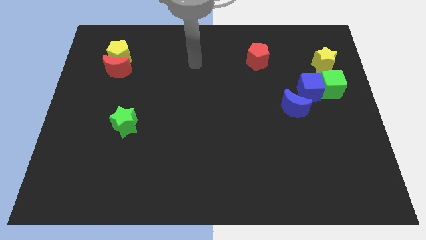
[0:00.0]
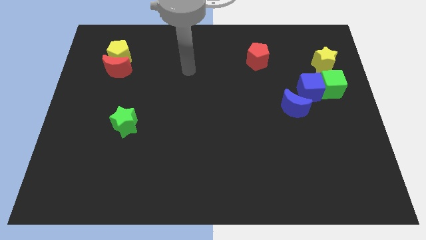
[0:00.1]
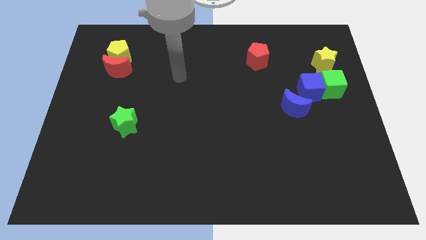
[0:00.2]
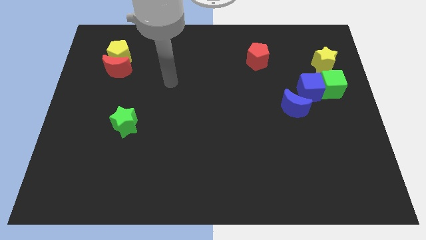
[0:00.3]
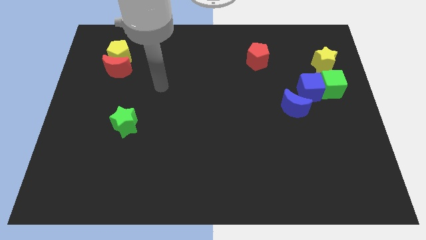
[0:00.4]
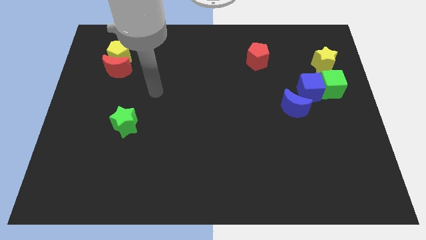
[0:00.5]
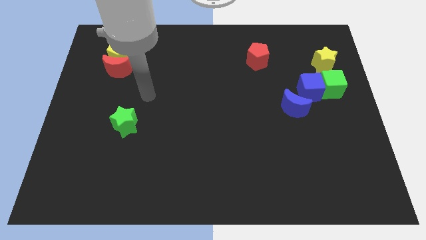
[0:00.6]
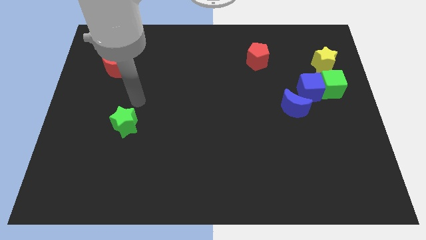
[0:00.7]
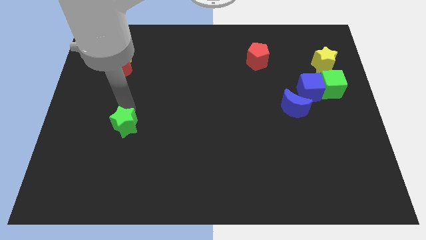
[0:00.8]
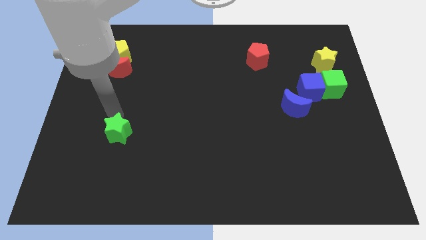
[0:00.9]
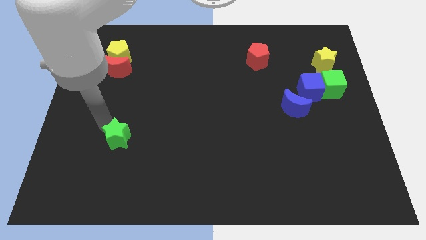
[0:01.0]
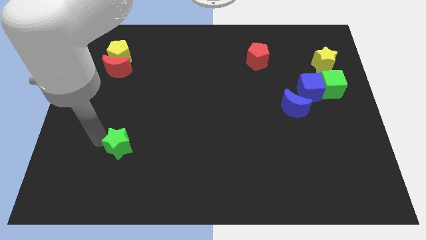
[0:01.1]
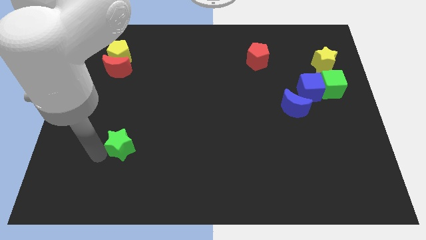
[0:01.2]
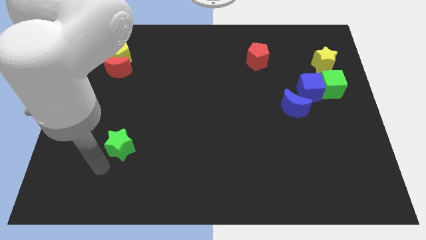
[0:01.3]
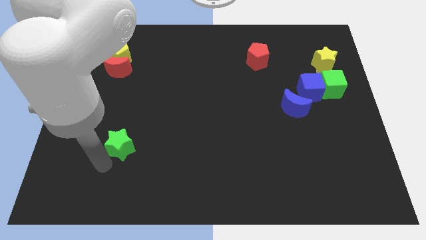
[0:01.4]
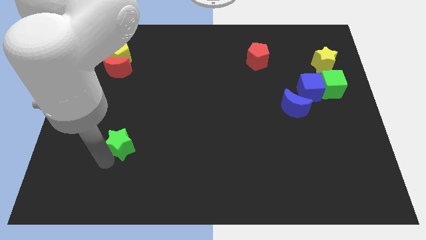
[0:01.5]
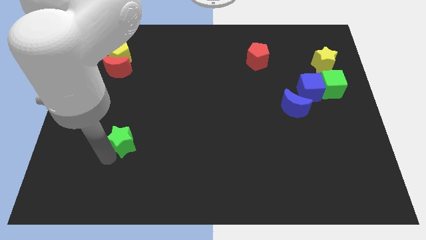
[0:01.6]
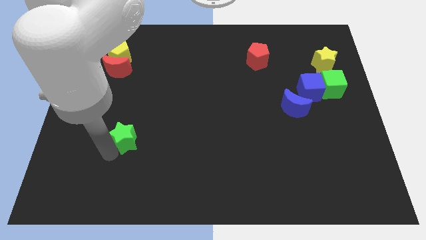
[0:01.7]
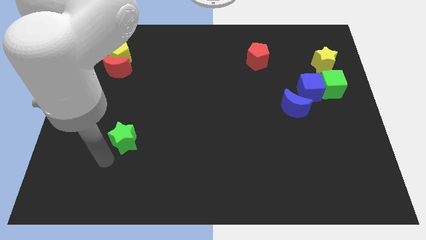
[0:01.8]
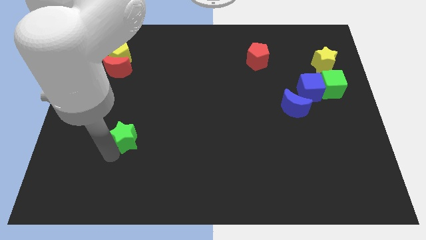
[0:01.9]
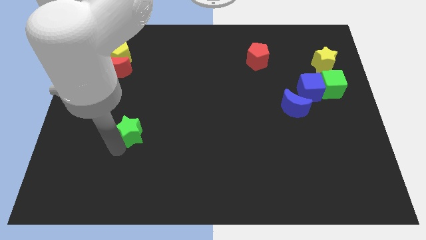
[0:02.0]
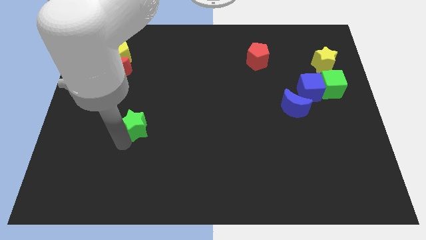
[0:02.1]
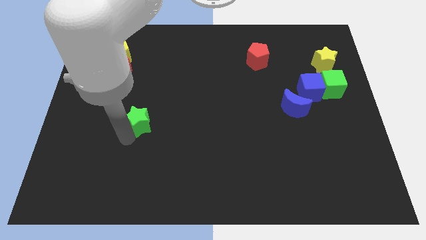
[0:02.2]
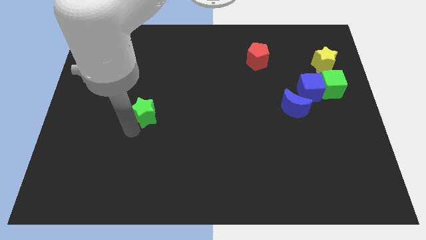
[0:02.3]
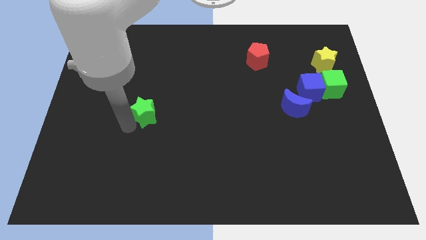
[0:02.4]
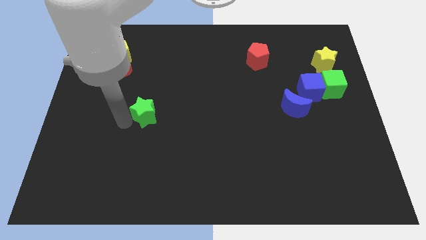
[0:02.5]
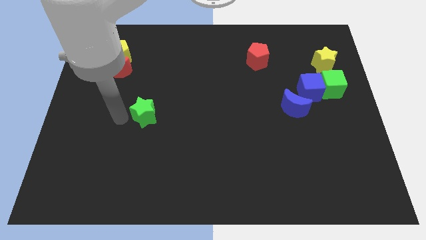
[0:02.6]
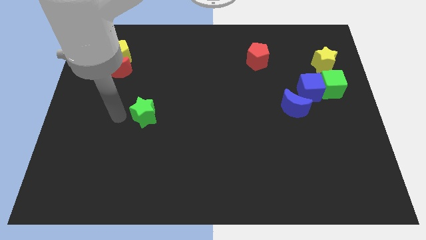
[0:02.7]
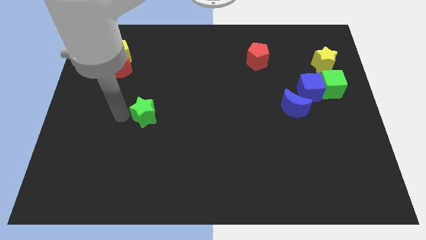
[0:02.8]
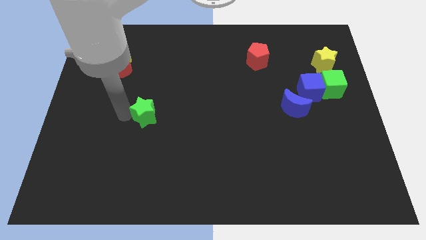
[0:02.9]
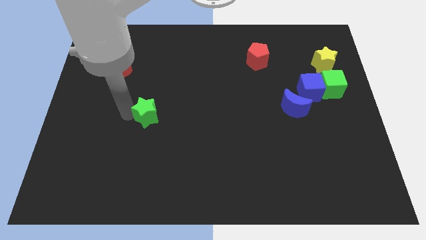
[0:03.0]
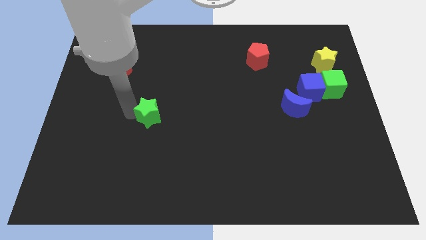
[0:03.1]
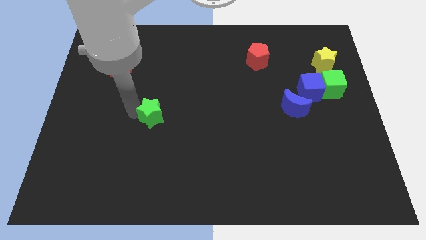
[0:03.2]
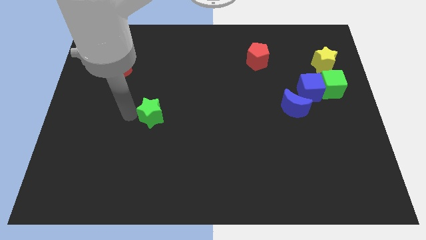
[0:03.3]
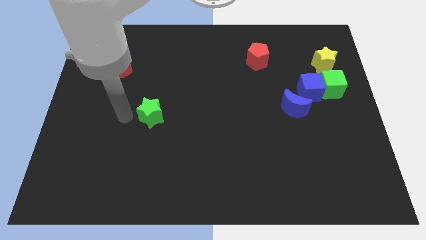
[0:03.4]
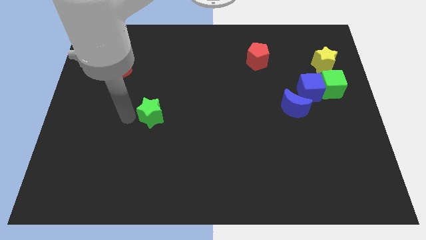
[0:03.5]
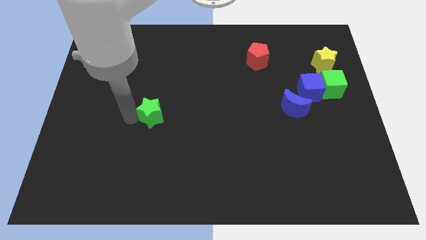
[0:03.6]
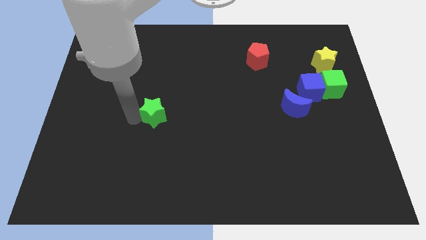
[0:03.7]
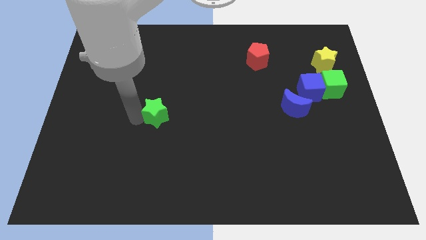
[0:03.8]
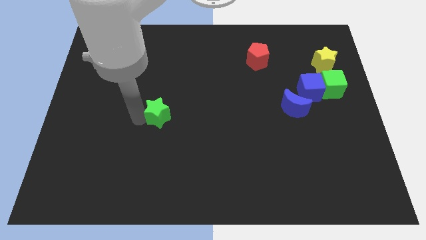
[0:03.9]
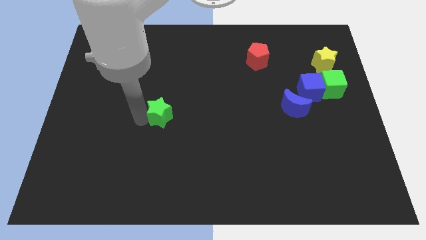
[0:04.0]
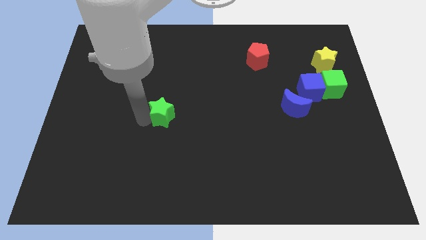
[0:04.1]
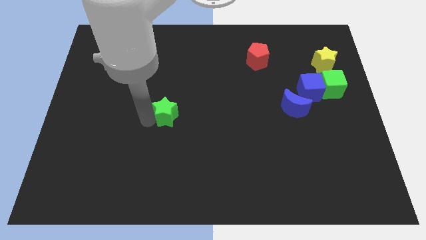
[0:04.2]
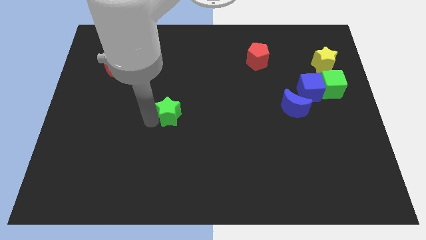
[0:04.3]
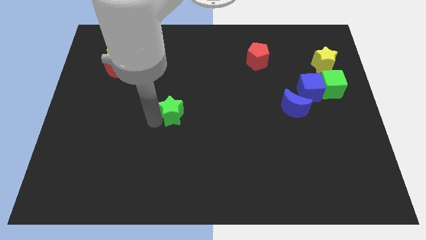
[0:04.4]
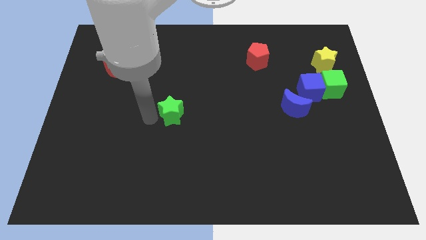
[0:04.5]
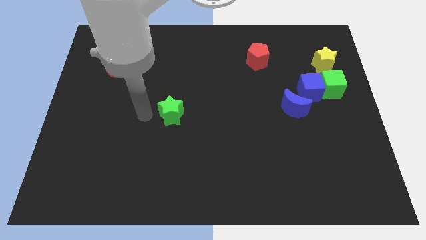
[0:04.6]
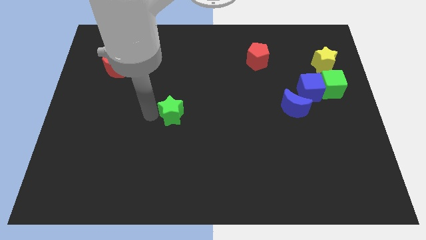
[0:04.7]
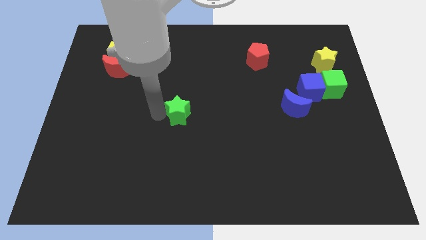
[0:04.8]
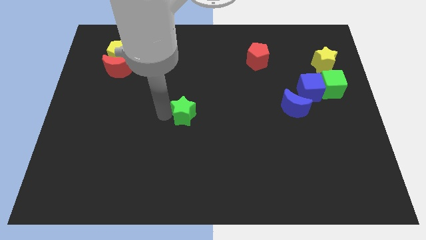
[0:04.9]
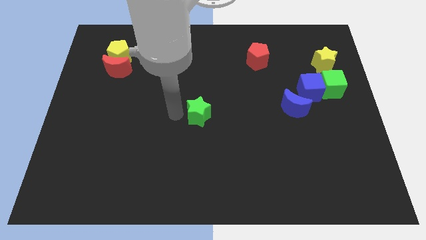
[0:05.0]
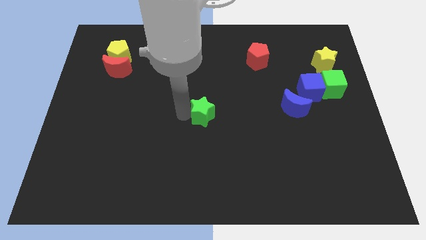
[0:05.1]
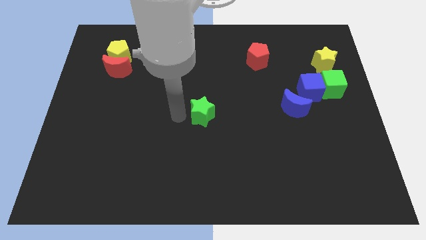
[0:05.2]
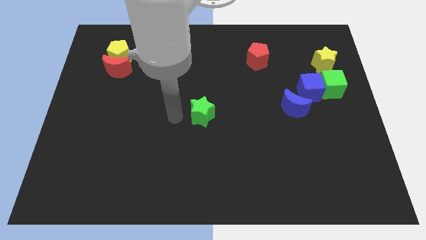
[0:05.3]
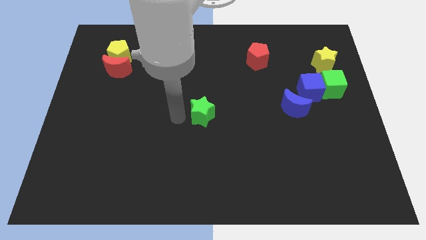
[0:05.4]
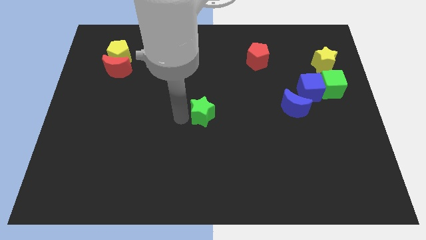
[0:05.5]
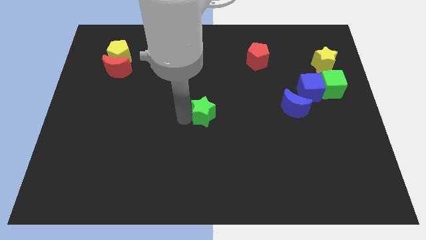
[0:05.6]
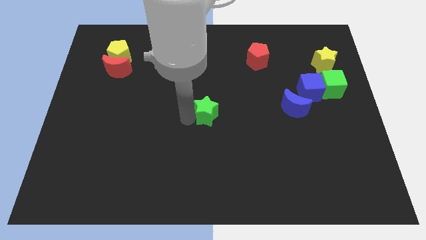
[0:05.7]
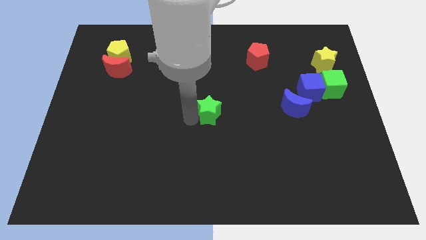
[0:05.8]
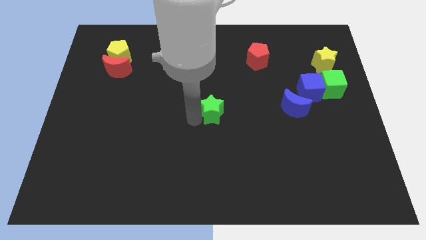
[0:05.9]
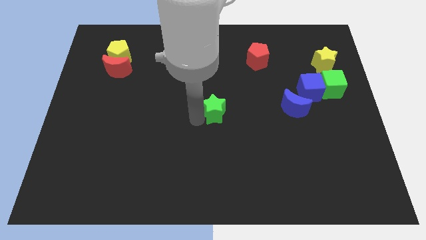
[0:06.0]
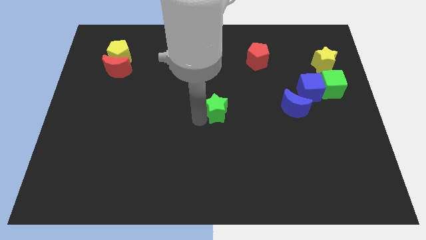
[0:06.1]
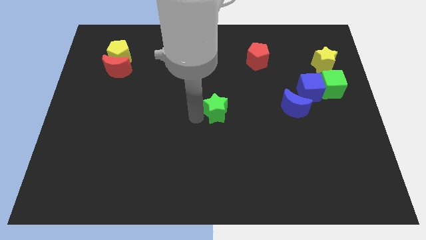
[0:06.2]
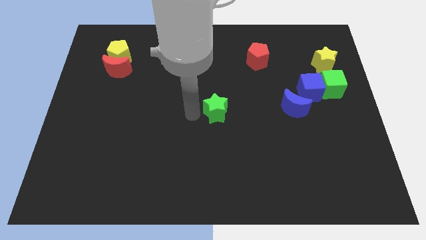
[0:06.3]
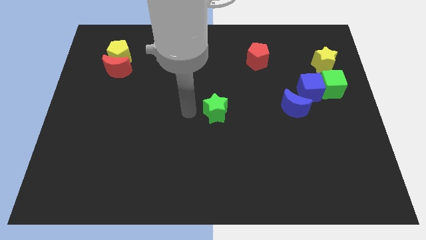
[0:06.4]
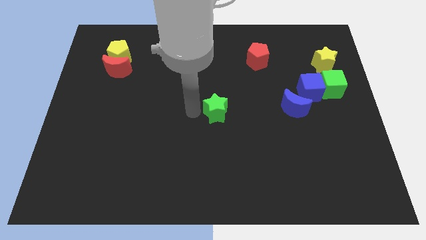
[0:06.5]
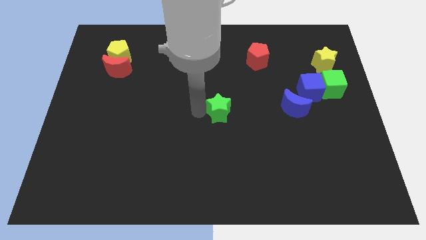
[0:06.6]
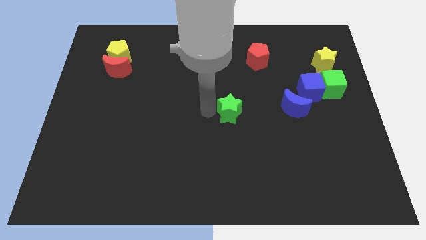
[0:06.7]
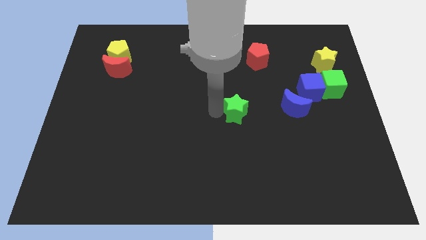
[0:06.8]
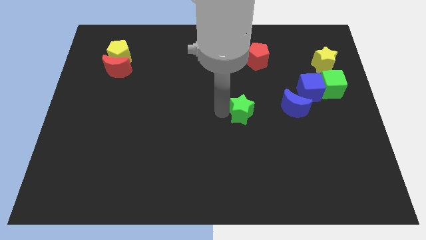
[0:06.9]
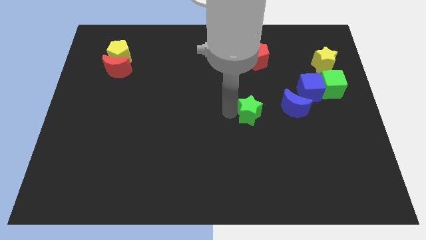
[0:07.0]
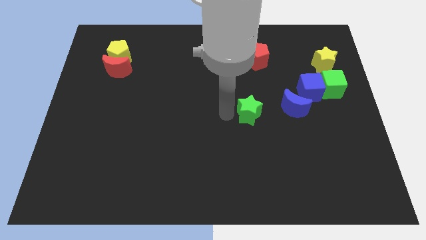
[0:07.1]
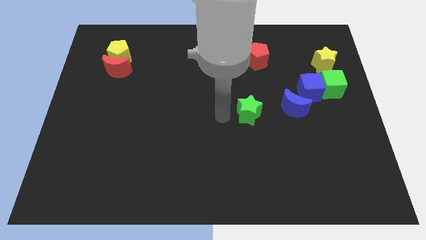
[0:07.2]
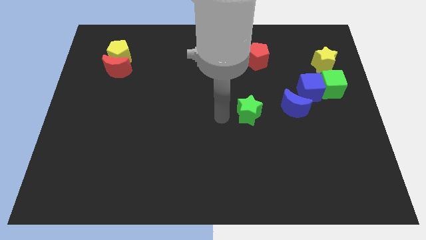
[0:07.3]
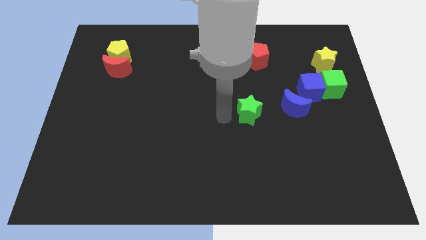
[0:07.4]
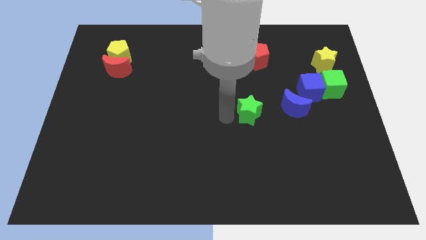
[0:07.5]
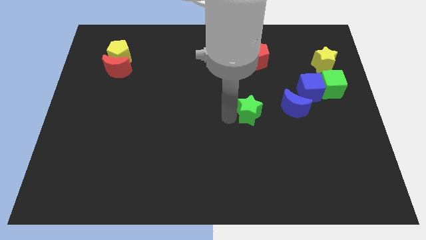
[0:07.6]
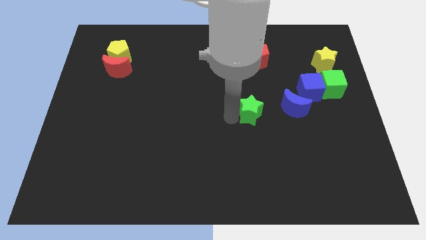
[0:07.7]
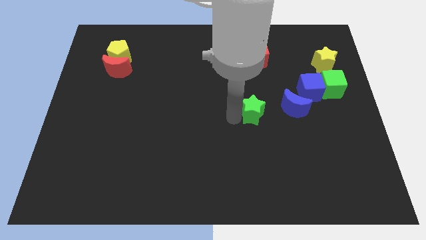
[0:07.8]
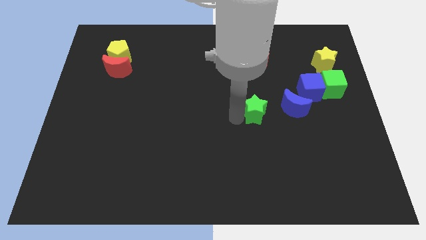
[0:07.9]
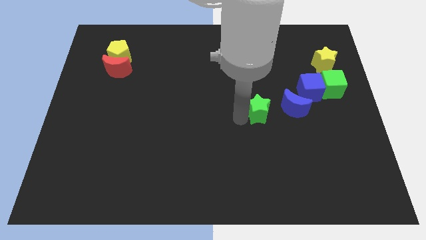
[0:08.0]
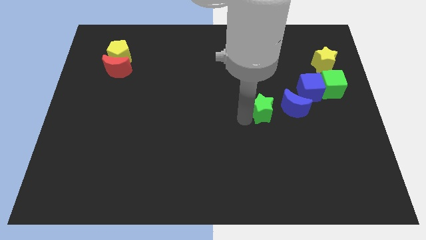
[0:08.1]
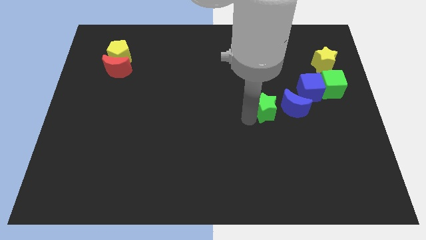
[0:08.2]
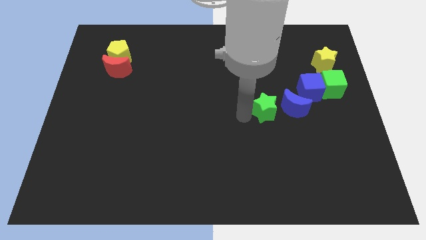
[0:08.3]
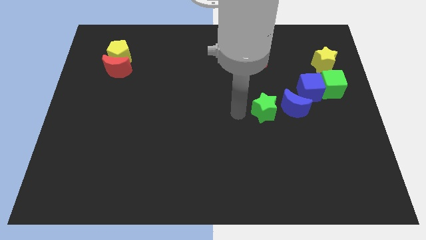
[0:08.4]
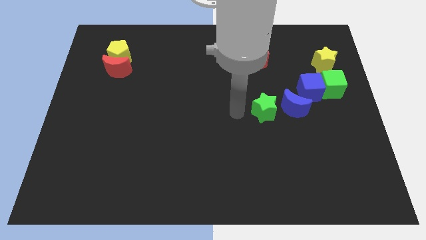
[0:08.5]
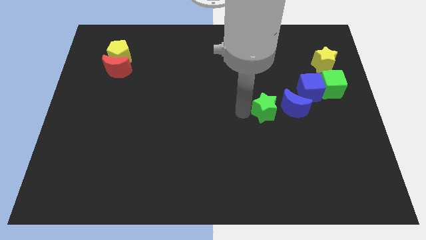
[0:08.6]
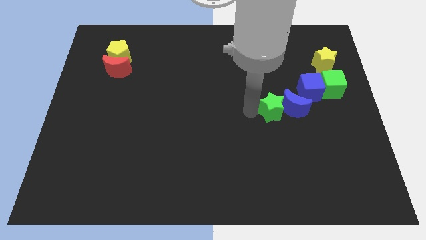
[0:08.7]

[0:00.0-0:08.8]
put the green star next to the blue moon
